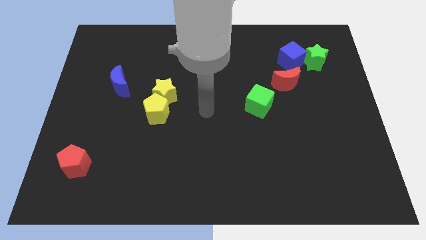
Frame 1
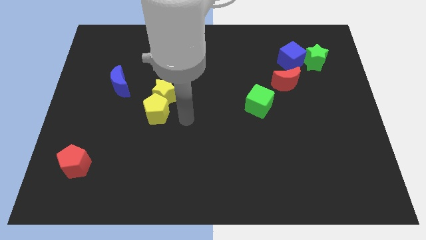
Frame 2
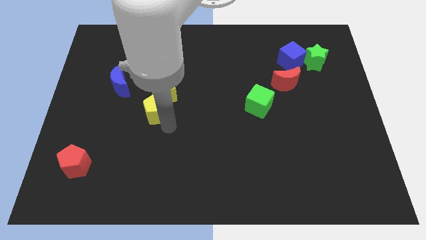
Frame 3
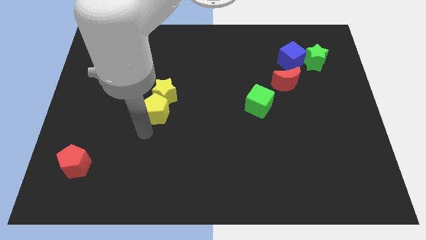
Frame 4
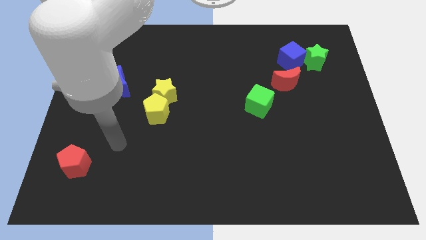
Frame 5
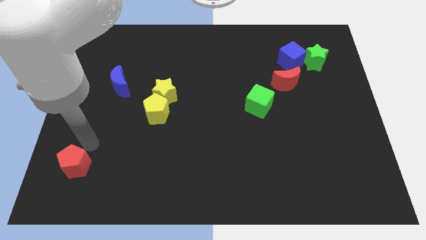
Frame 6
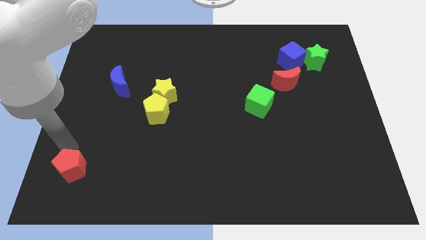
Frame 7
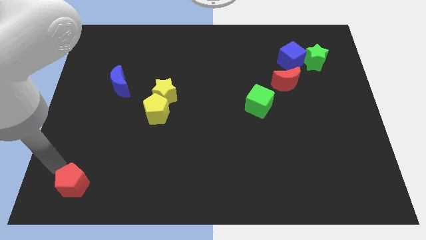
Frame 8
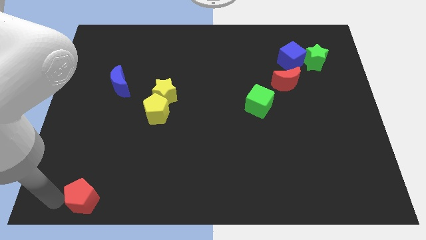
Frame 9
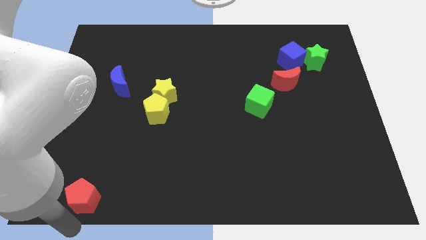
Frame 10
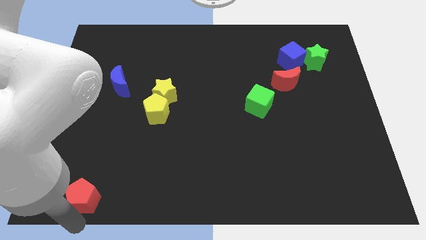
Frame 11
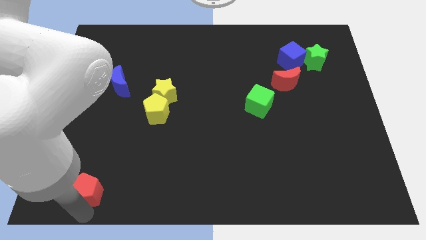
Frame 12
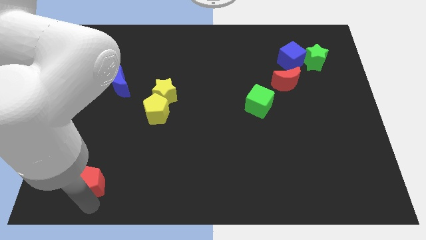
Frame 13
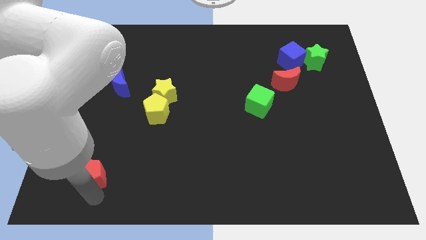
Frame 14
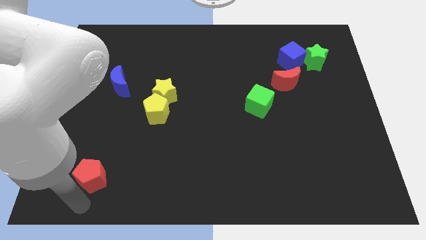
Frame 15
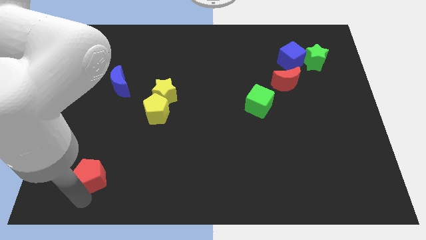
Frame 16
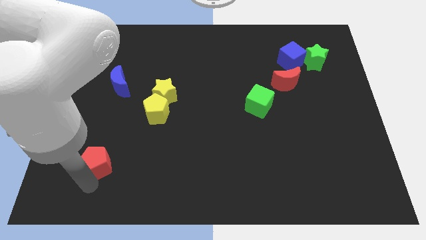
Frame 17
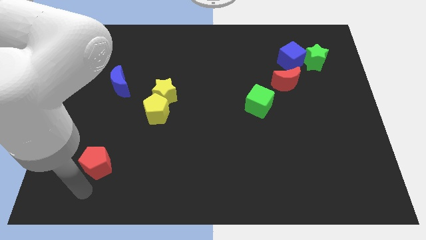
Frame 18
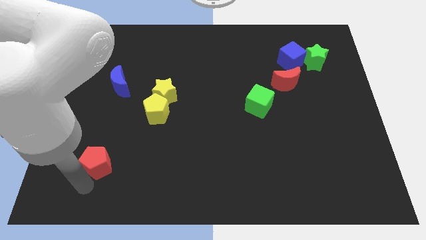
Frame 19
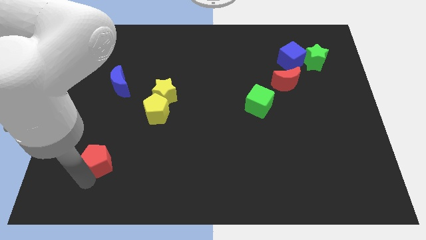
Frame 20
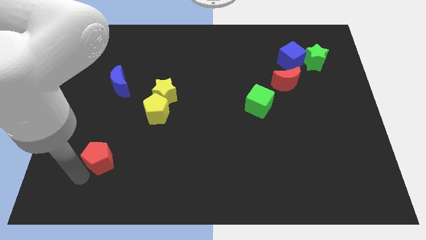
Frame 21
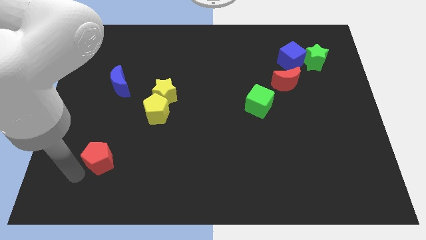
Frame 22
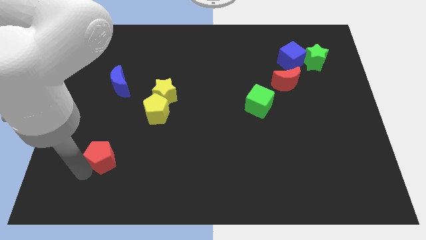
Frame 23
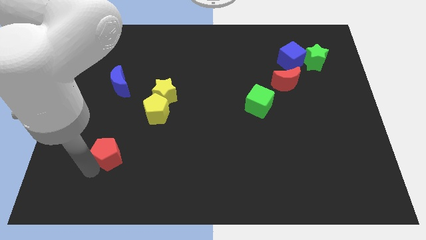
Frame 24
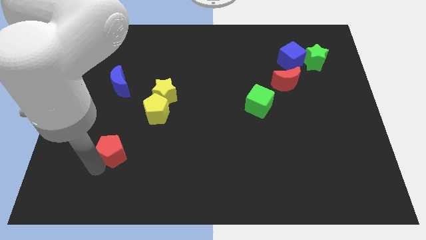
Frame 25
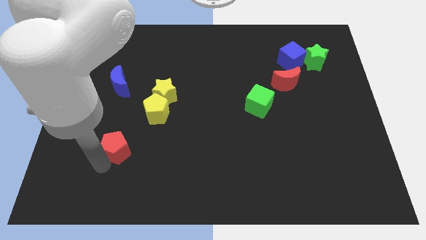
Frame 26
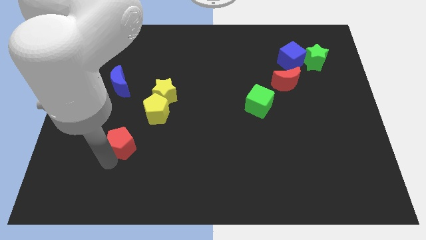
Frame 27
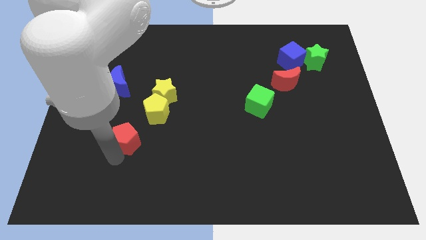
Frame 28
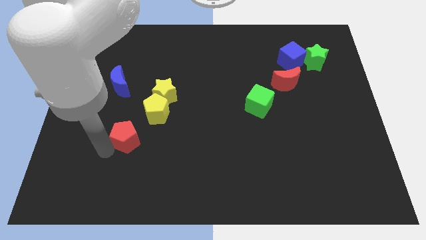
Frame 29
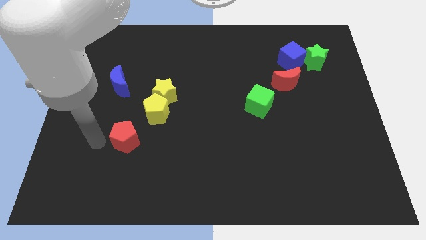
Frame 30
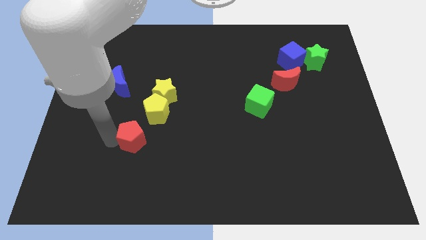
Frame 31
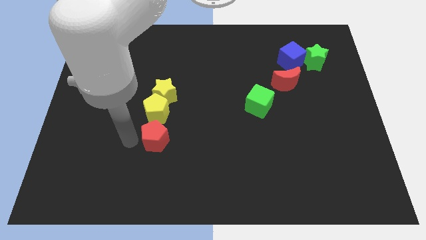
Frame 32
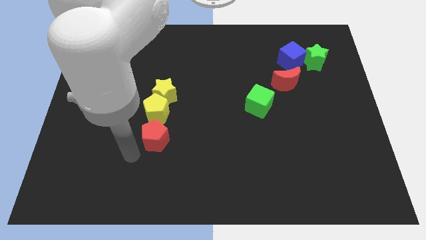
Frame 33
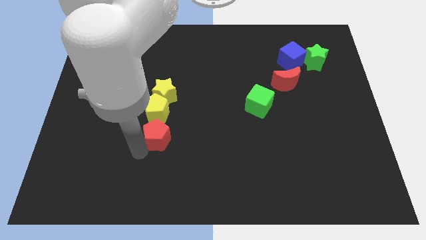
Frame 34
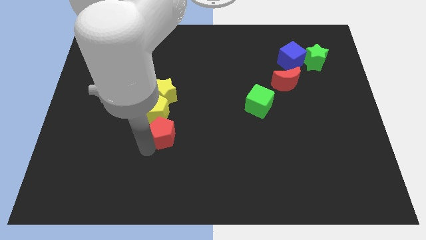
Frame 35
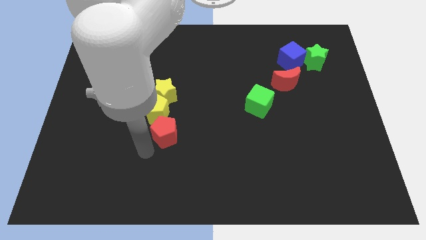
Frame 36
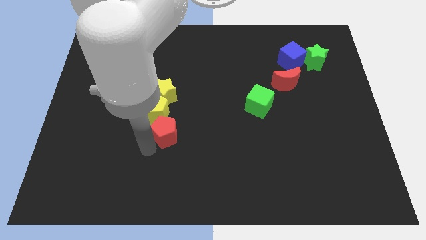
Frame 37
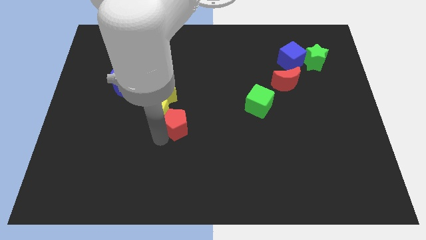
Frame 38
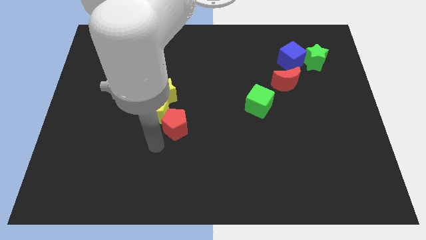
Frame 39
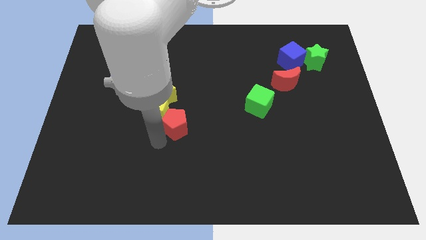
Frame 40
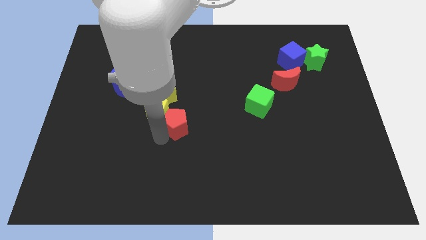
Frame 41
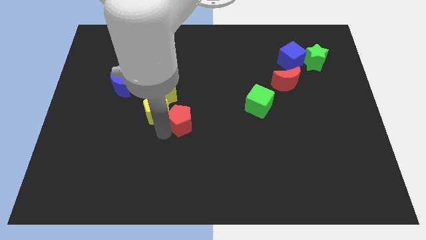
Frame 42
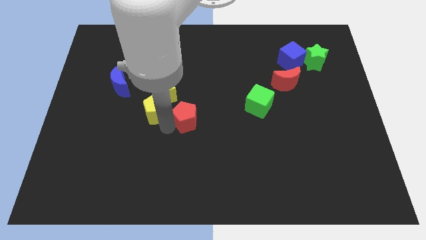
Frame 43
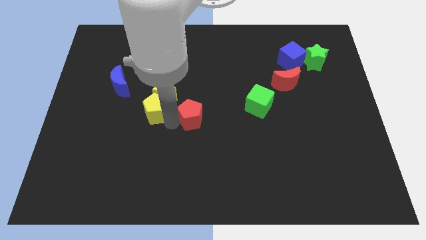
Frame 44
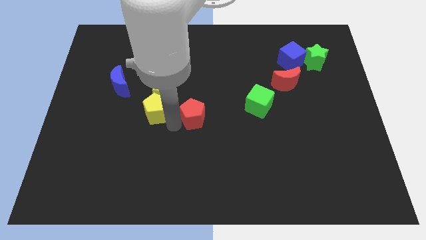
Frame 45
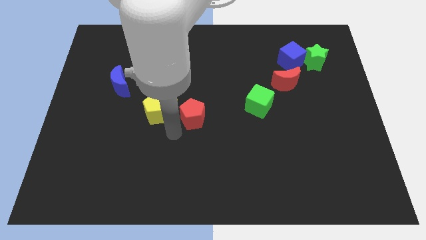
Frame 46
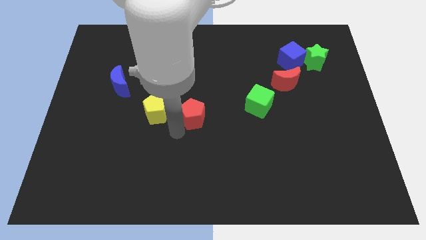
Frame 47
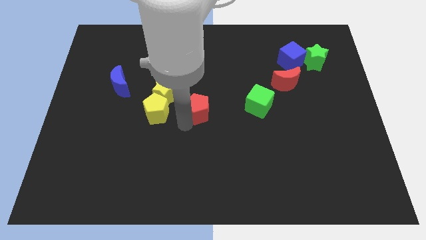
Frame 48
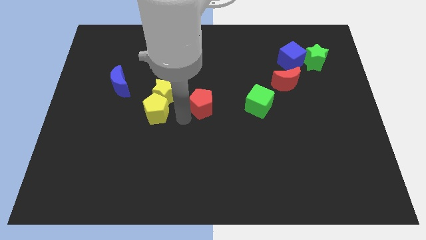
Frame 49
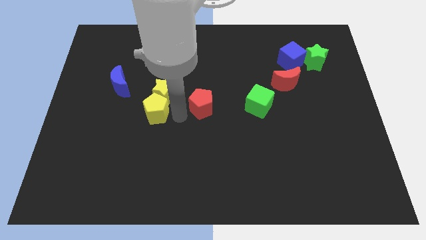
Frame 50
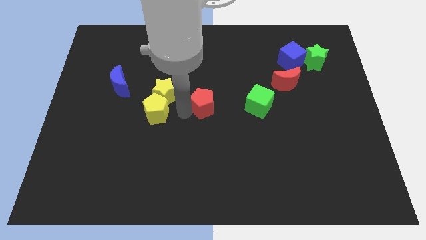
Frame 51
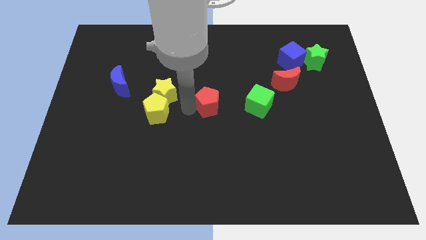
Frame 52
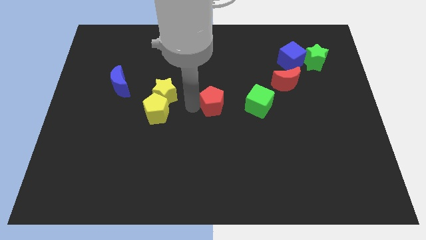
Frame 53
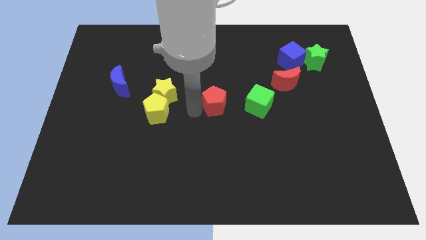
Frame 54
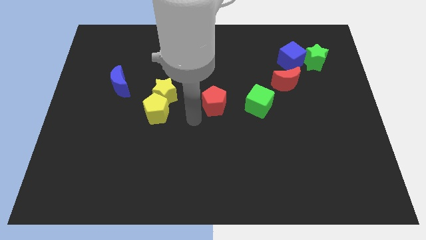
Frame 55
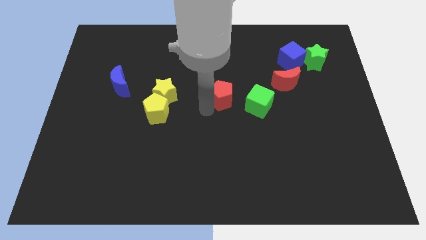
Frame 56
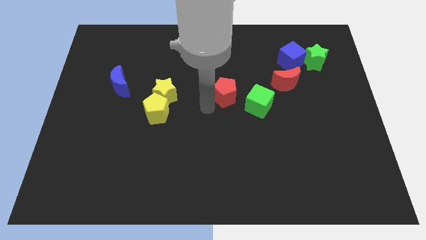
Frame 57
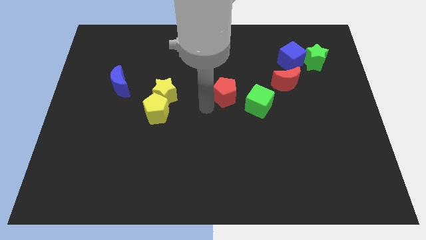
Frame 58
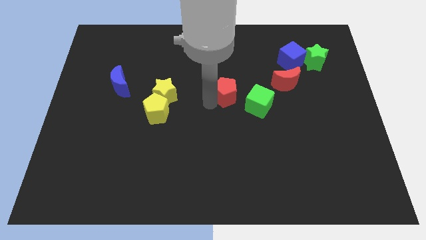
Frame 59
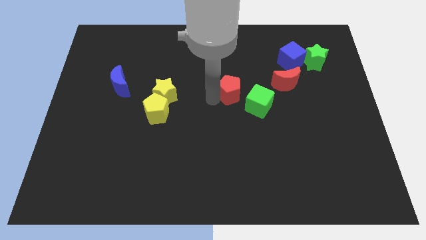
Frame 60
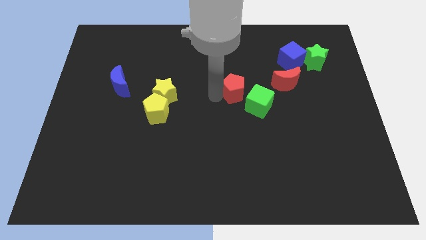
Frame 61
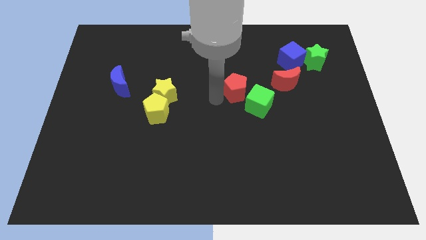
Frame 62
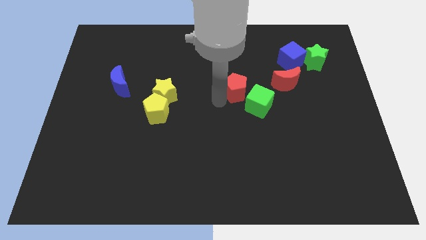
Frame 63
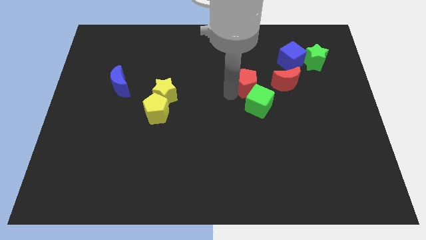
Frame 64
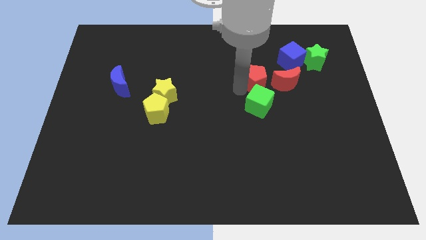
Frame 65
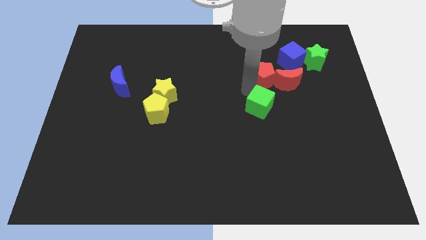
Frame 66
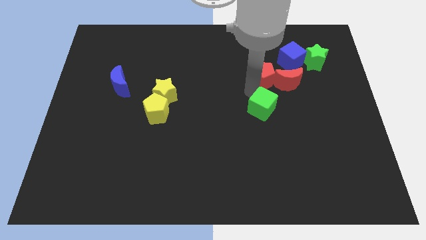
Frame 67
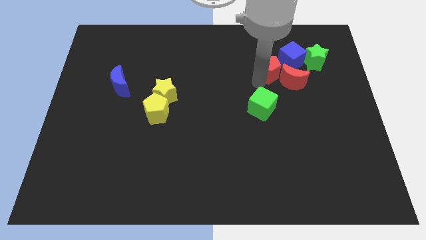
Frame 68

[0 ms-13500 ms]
move the red pentagon to the left of the green star

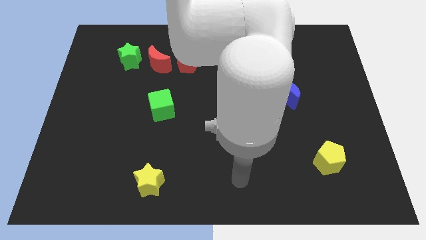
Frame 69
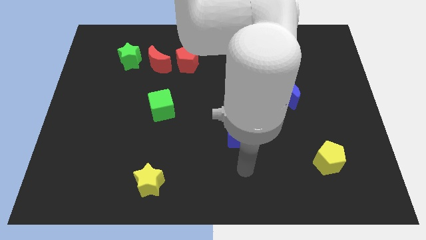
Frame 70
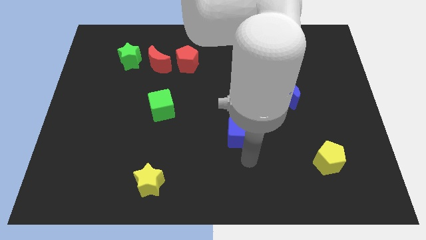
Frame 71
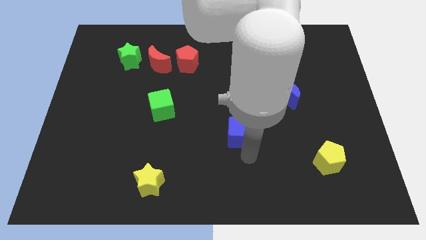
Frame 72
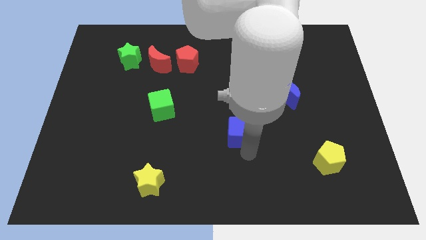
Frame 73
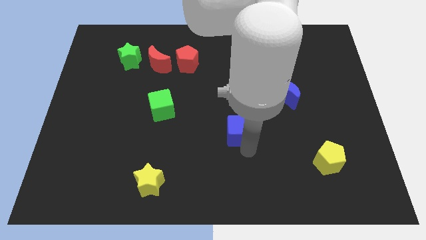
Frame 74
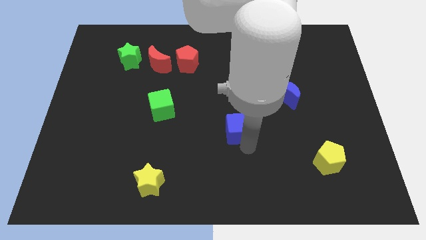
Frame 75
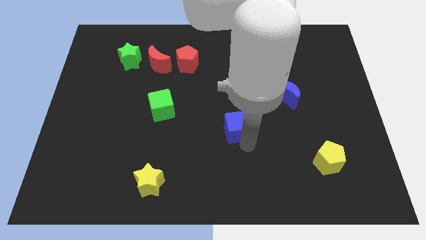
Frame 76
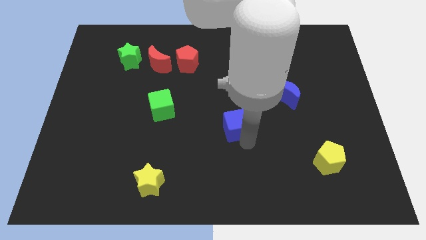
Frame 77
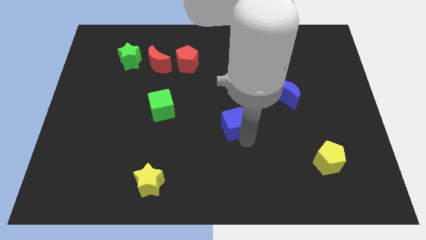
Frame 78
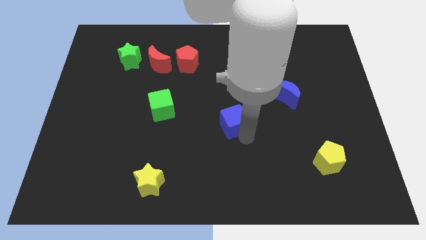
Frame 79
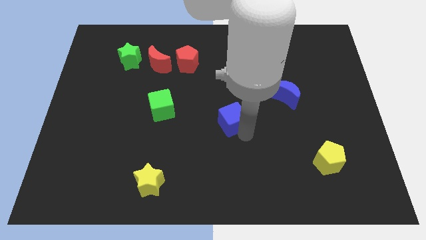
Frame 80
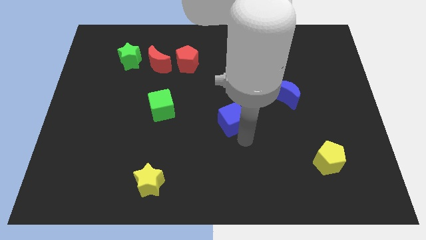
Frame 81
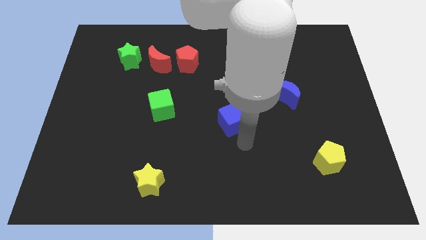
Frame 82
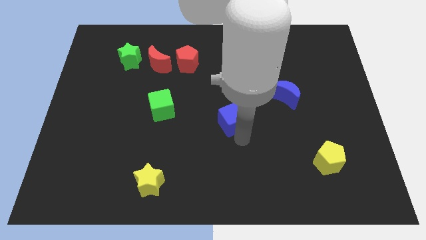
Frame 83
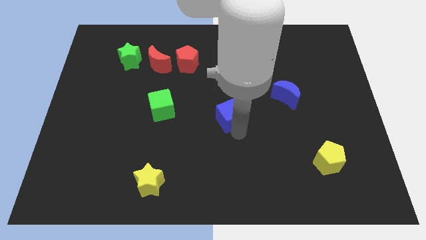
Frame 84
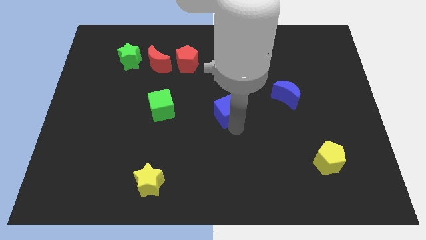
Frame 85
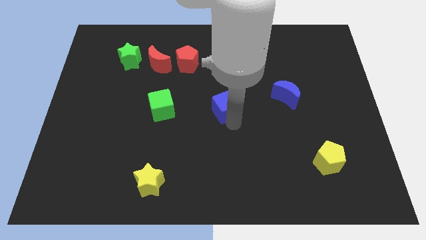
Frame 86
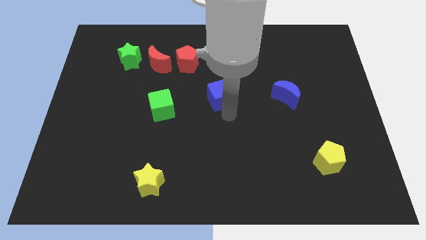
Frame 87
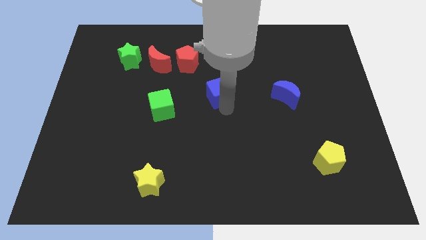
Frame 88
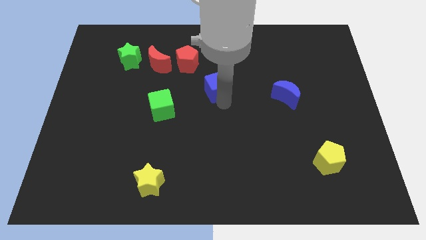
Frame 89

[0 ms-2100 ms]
move the blue cube to the bottom right side of the red pentagon
